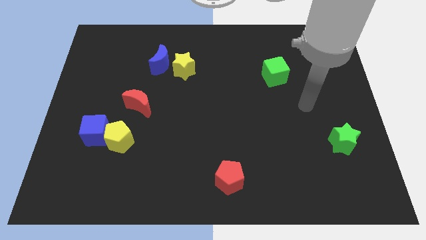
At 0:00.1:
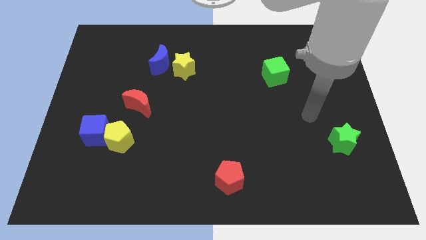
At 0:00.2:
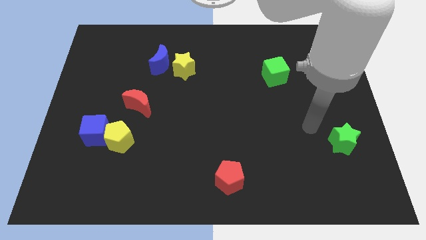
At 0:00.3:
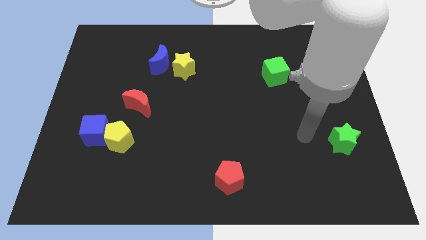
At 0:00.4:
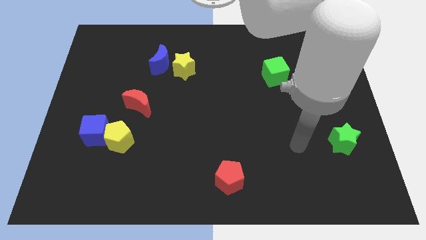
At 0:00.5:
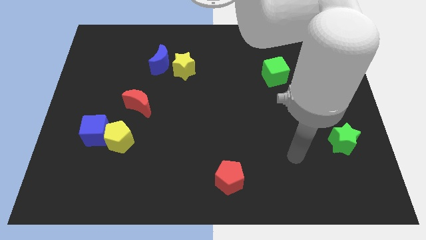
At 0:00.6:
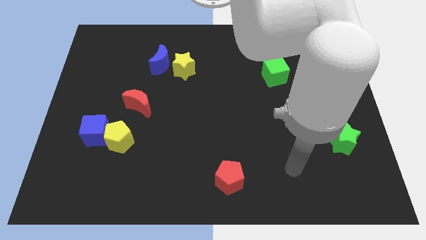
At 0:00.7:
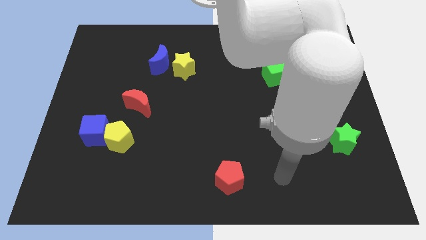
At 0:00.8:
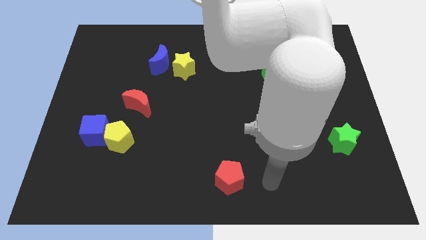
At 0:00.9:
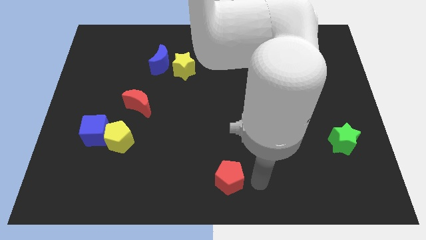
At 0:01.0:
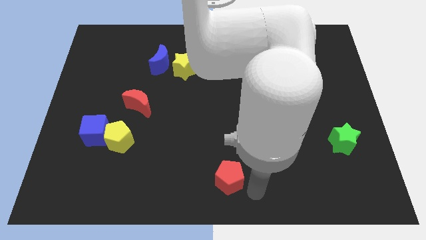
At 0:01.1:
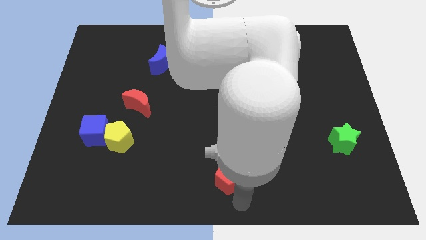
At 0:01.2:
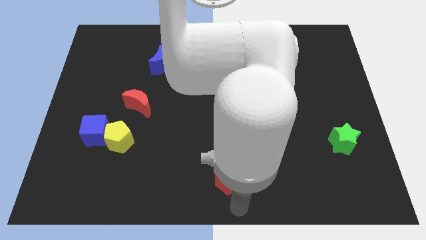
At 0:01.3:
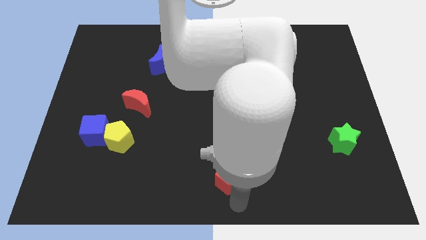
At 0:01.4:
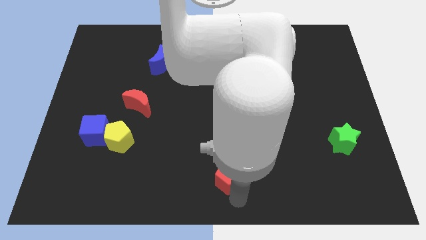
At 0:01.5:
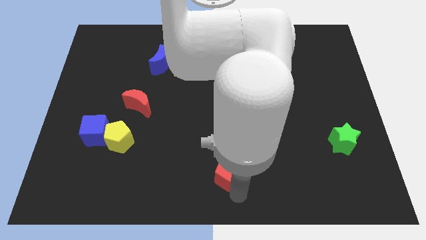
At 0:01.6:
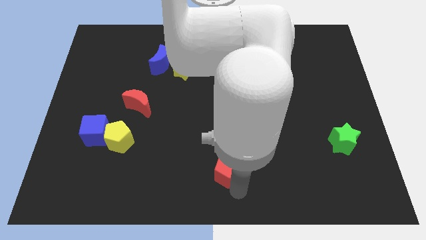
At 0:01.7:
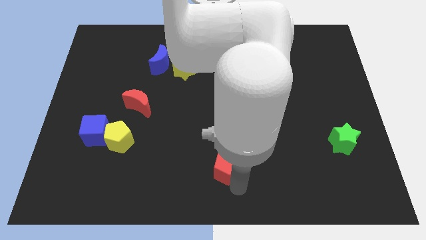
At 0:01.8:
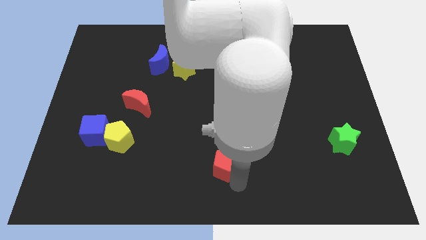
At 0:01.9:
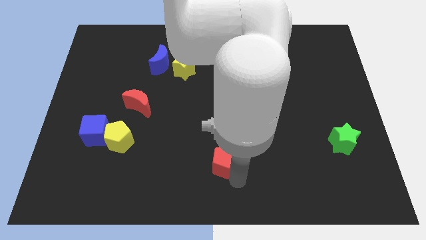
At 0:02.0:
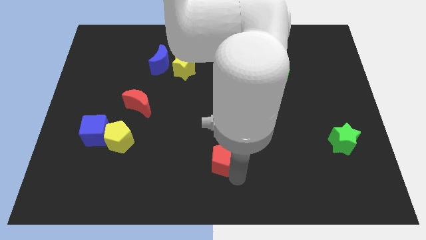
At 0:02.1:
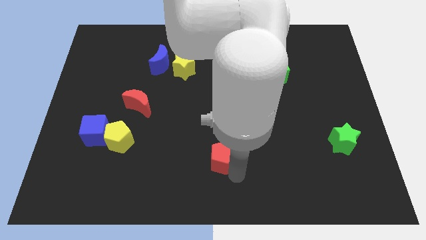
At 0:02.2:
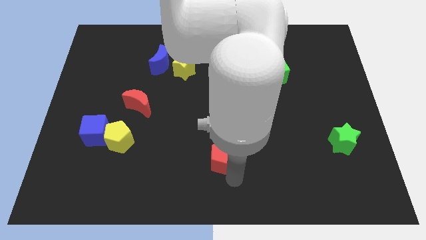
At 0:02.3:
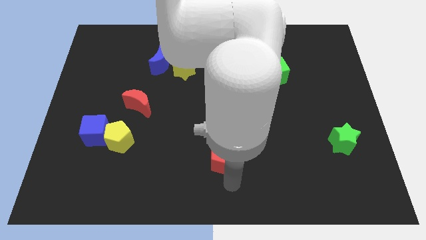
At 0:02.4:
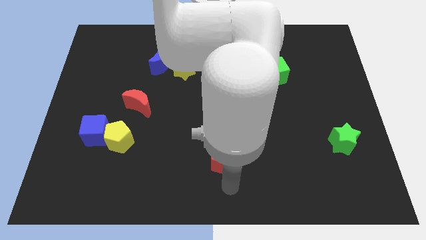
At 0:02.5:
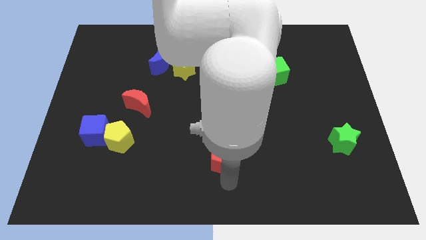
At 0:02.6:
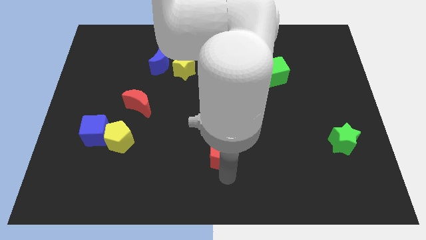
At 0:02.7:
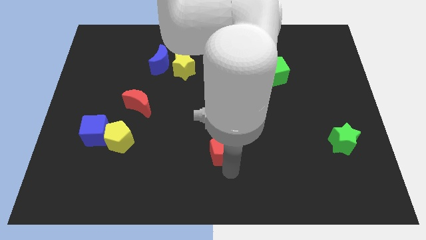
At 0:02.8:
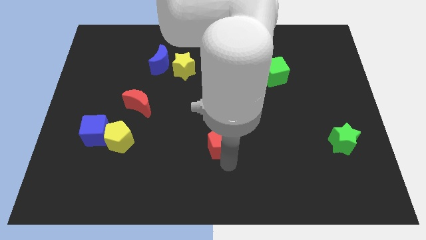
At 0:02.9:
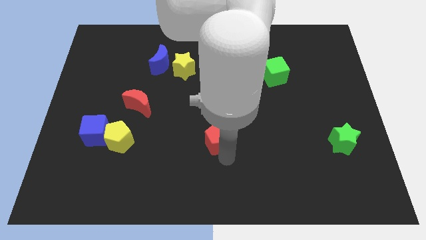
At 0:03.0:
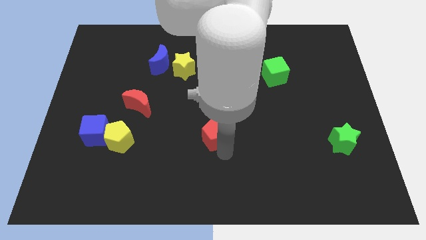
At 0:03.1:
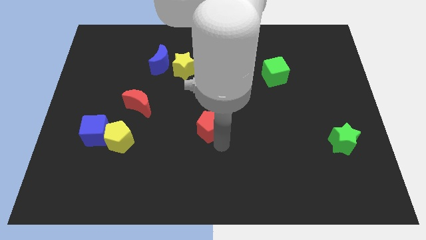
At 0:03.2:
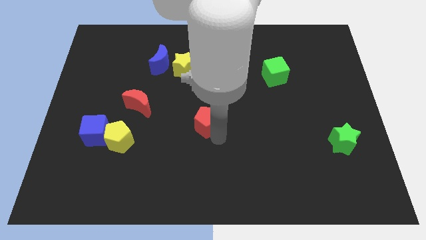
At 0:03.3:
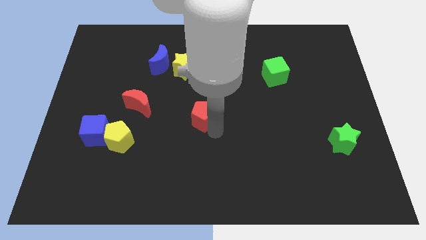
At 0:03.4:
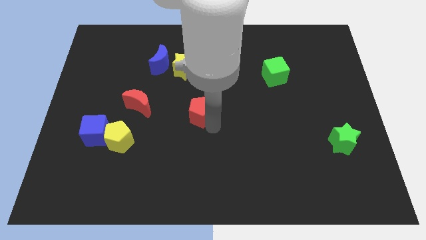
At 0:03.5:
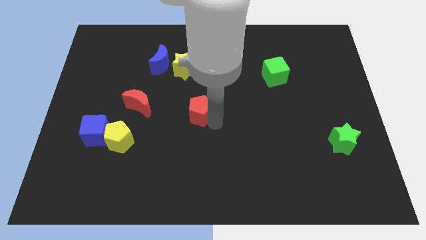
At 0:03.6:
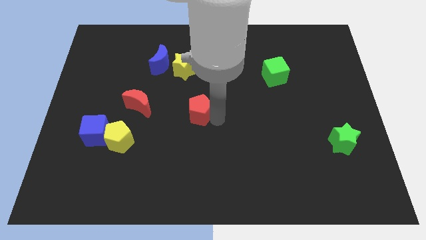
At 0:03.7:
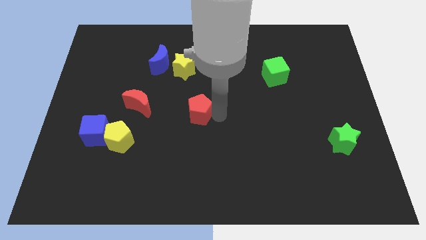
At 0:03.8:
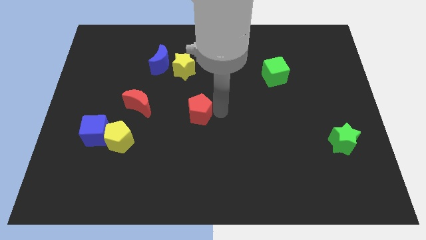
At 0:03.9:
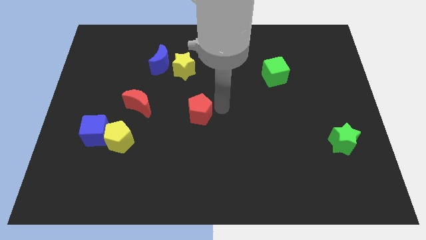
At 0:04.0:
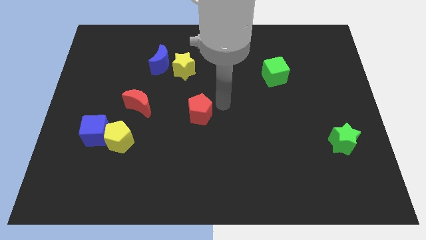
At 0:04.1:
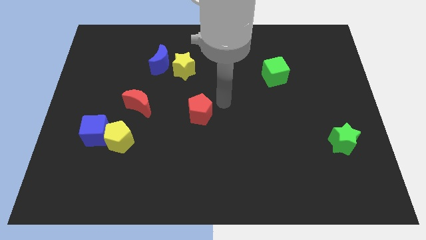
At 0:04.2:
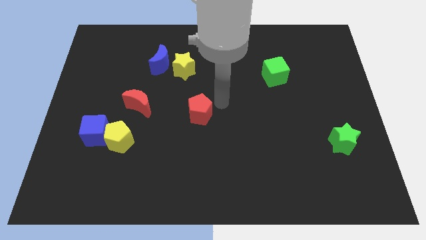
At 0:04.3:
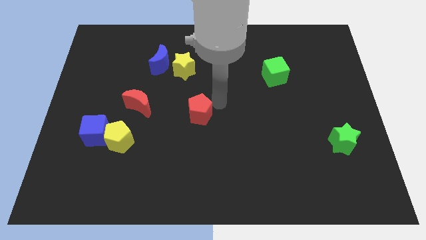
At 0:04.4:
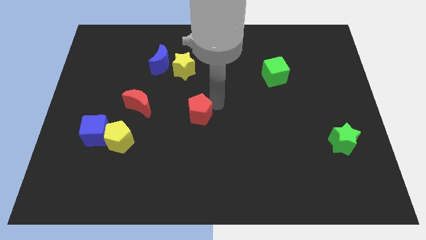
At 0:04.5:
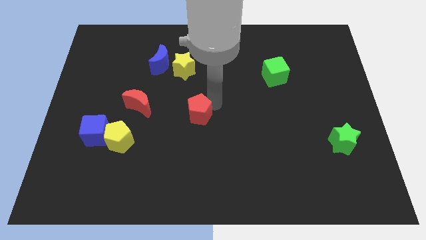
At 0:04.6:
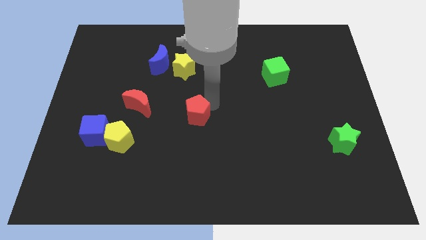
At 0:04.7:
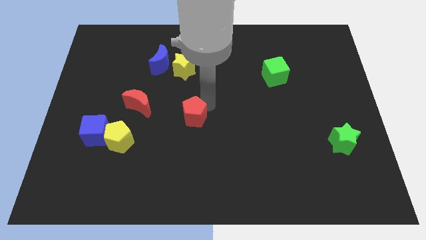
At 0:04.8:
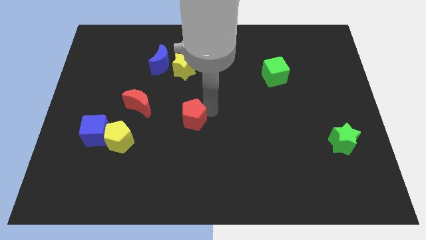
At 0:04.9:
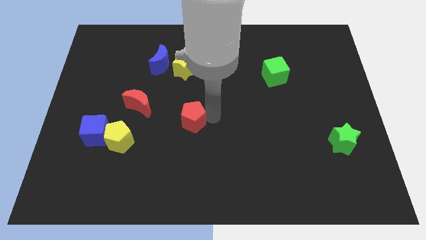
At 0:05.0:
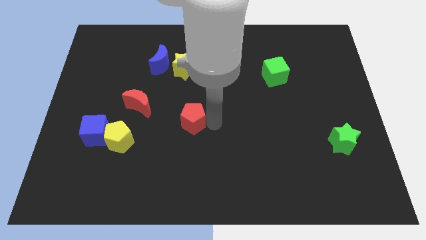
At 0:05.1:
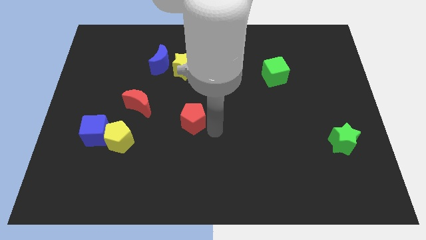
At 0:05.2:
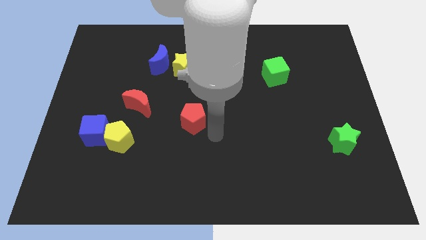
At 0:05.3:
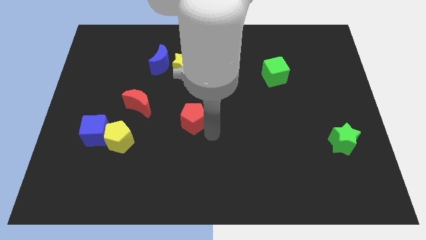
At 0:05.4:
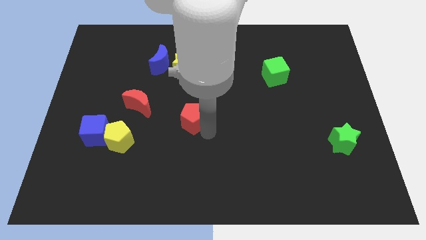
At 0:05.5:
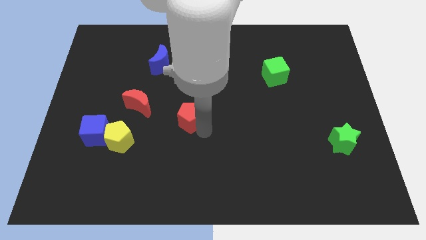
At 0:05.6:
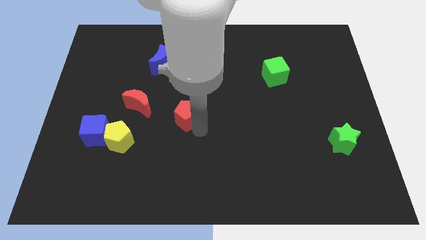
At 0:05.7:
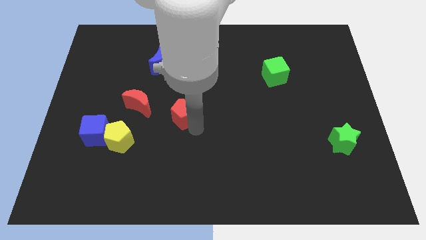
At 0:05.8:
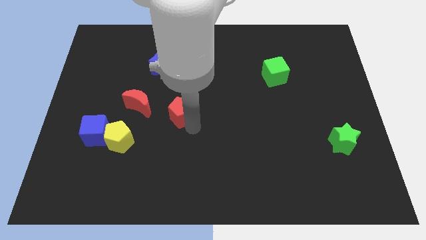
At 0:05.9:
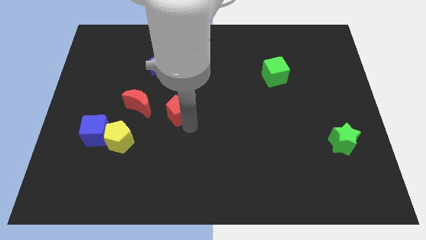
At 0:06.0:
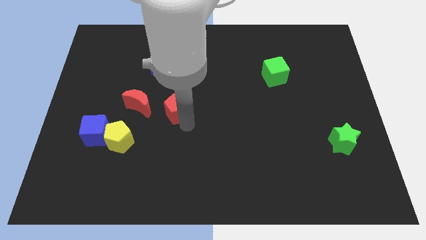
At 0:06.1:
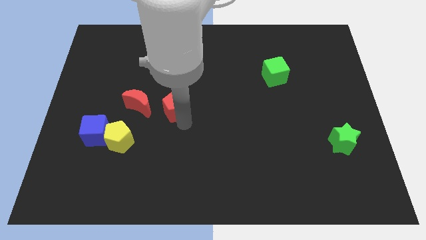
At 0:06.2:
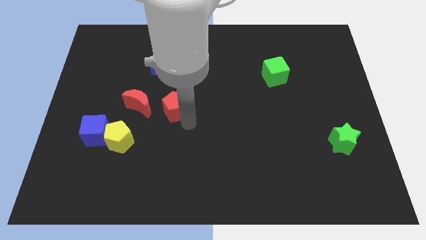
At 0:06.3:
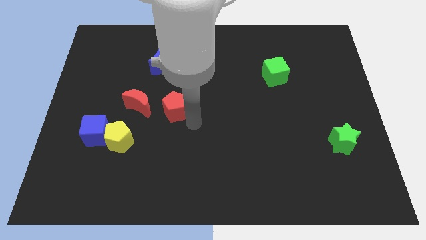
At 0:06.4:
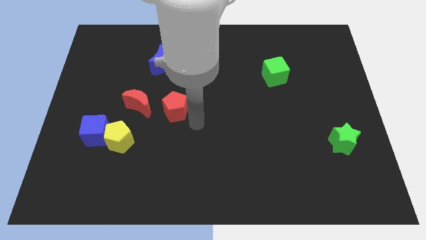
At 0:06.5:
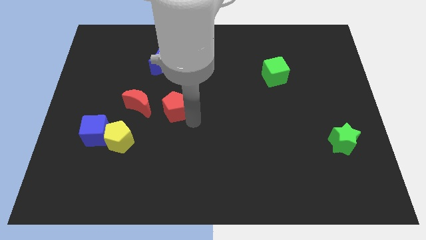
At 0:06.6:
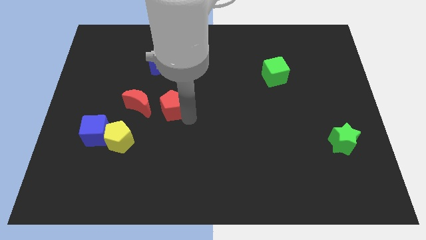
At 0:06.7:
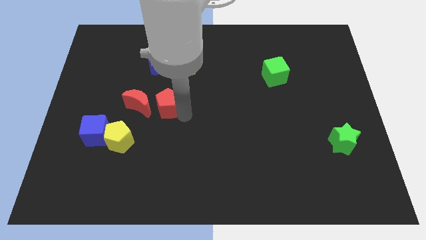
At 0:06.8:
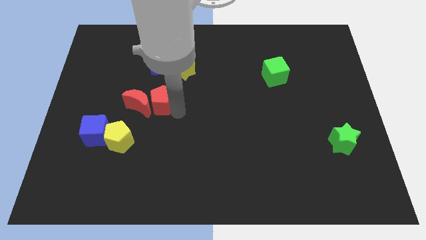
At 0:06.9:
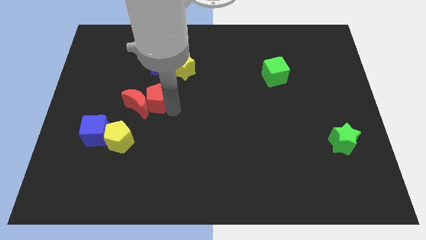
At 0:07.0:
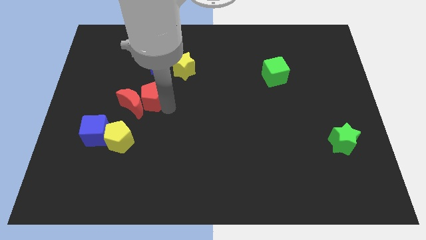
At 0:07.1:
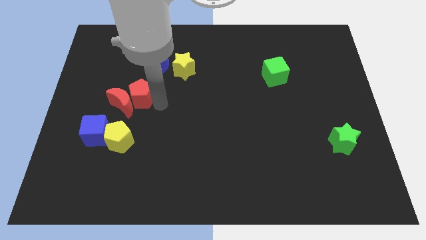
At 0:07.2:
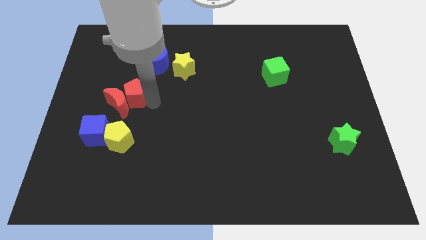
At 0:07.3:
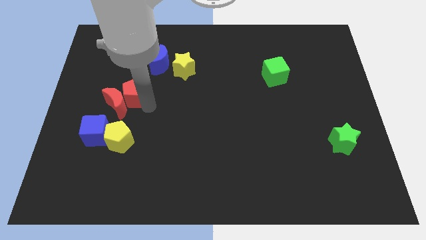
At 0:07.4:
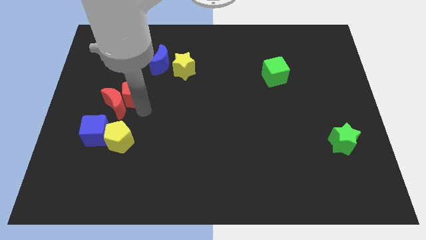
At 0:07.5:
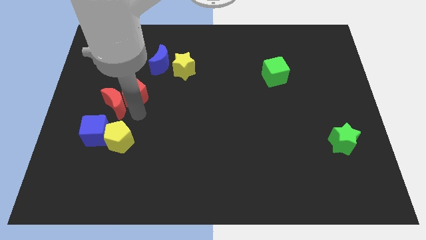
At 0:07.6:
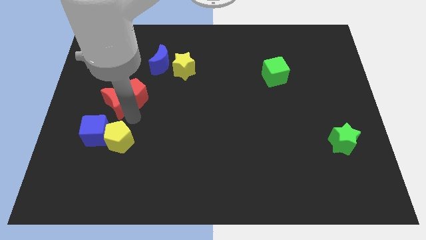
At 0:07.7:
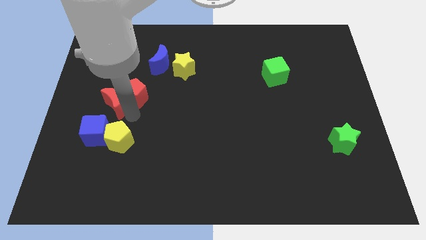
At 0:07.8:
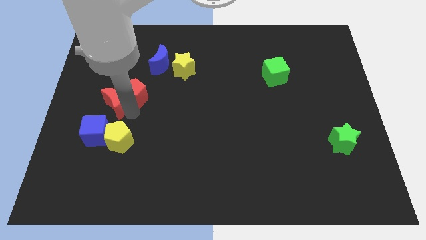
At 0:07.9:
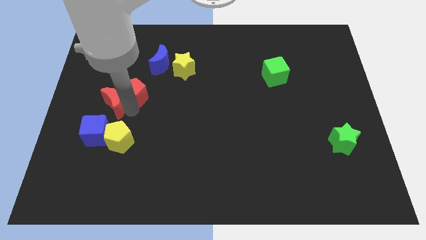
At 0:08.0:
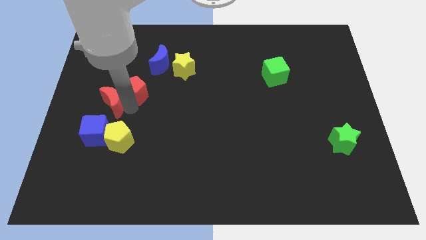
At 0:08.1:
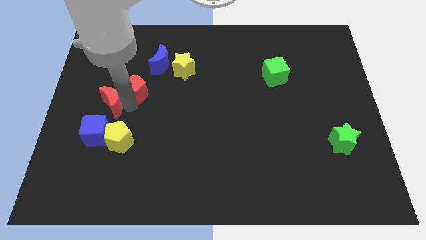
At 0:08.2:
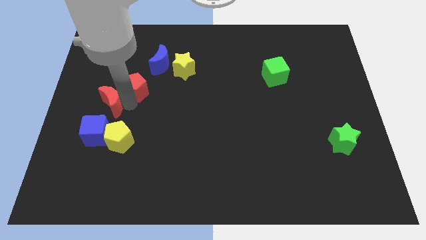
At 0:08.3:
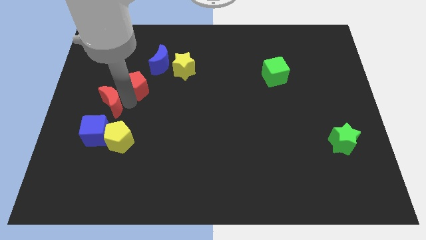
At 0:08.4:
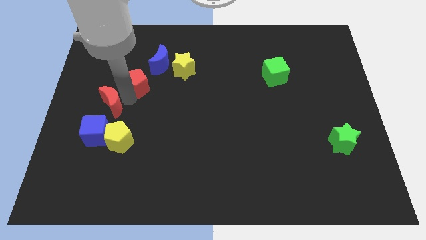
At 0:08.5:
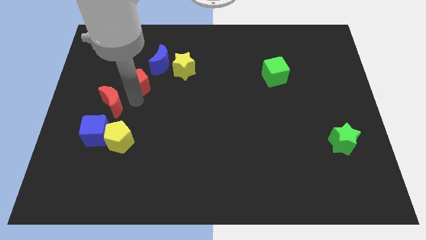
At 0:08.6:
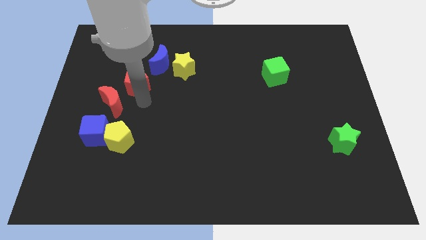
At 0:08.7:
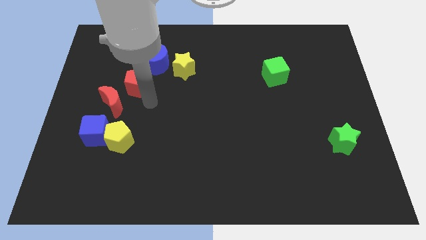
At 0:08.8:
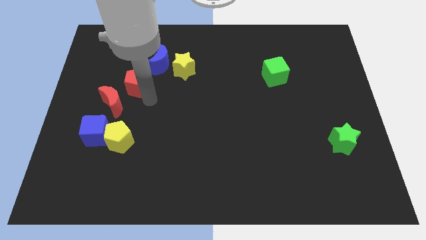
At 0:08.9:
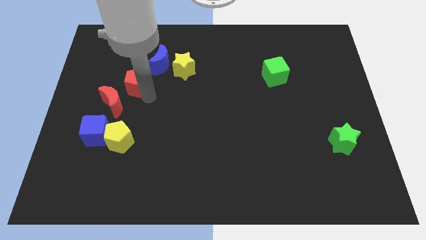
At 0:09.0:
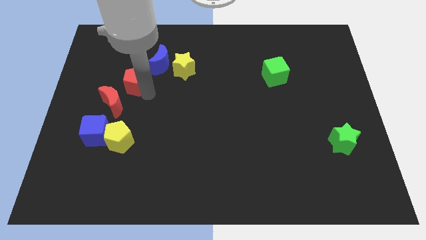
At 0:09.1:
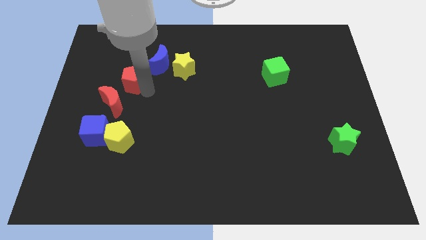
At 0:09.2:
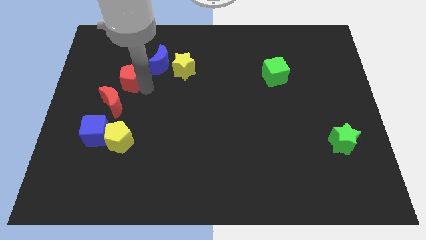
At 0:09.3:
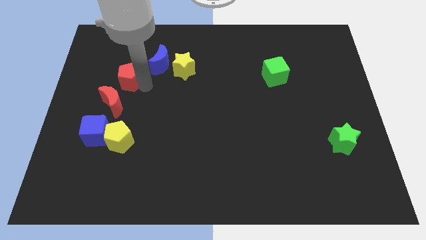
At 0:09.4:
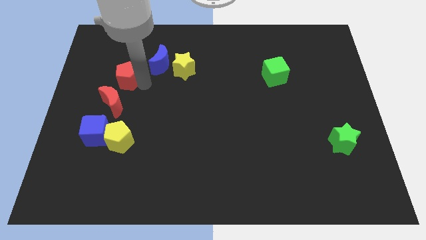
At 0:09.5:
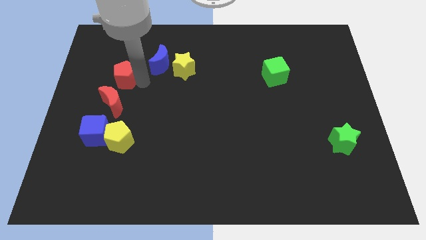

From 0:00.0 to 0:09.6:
push the red pentagon left of the blue moon
